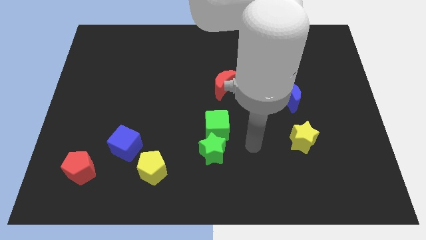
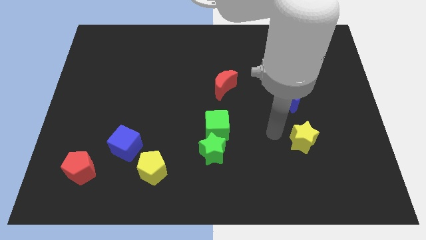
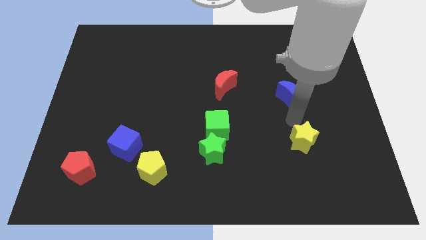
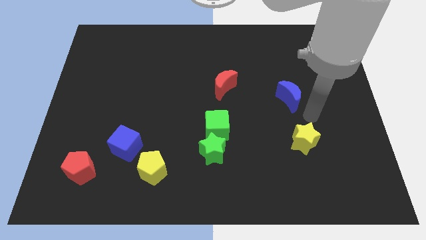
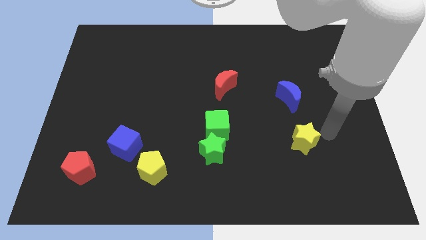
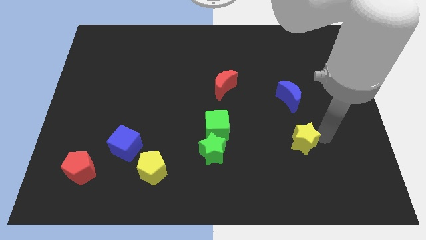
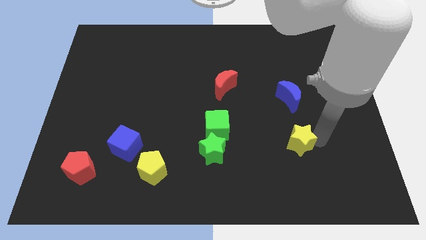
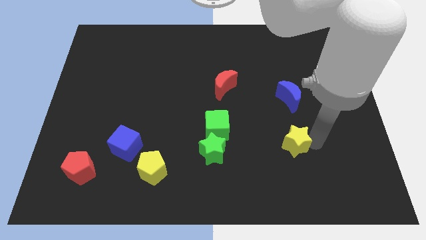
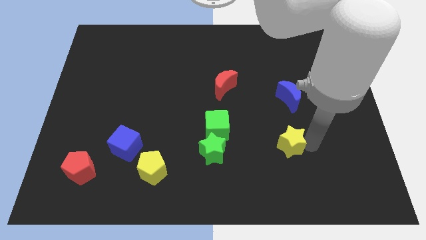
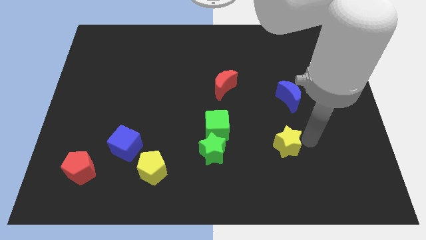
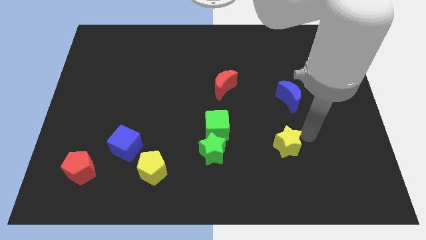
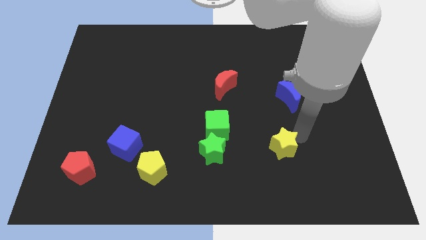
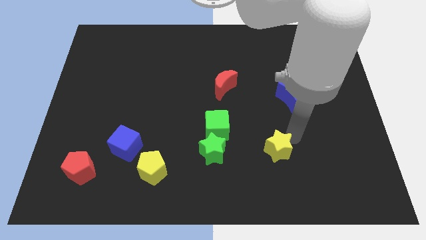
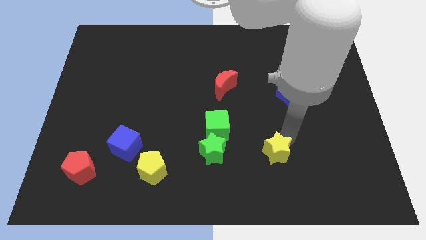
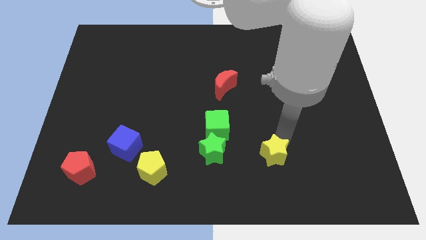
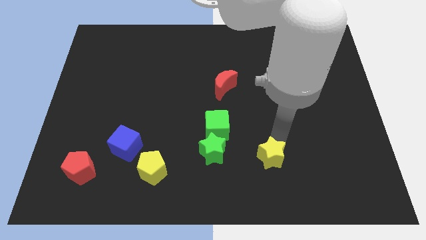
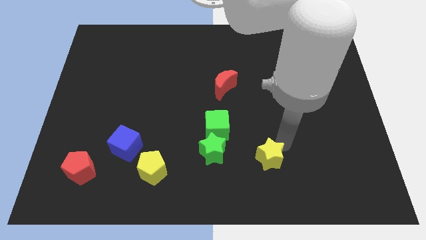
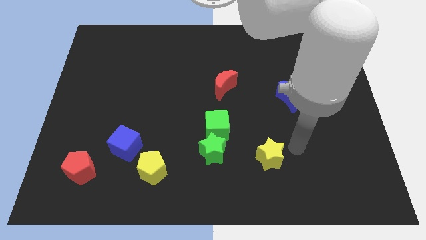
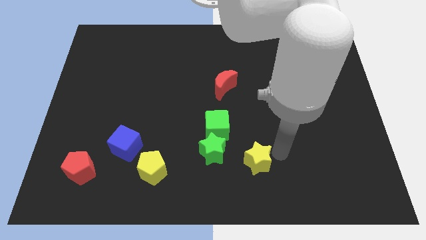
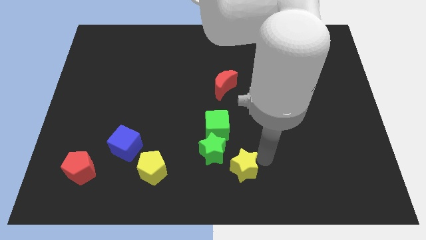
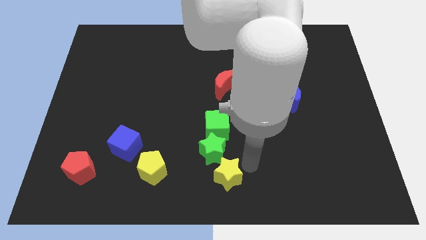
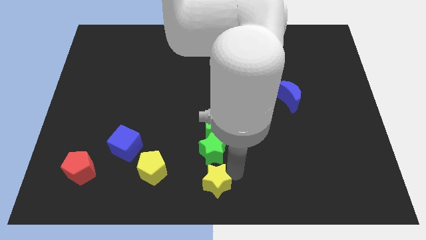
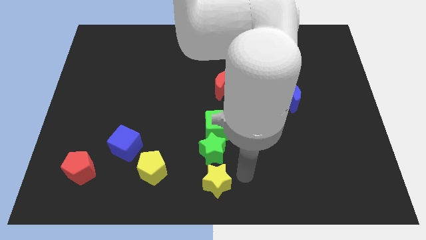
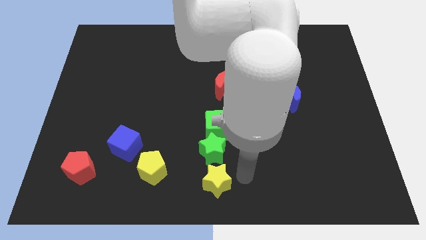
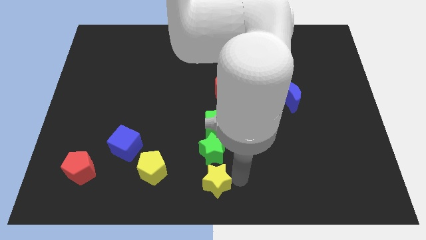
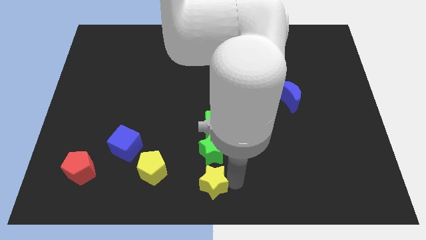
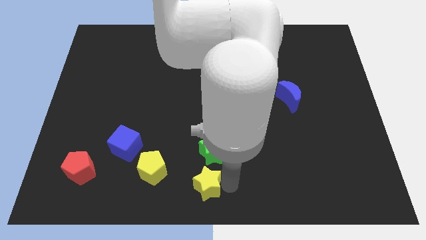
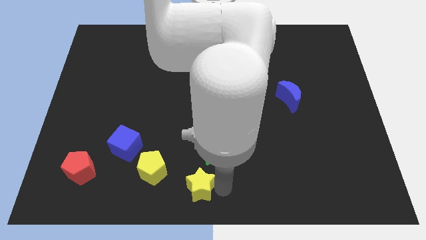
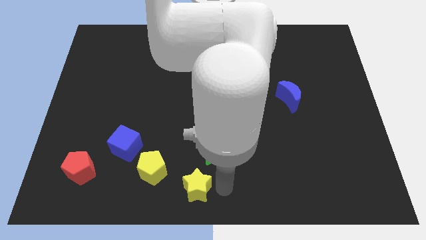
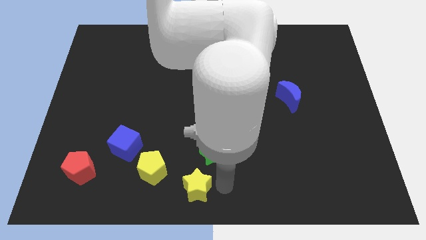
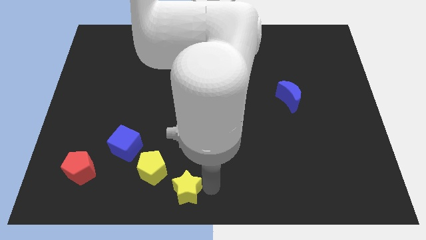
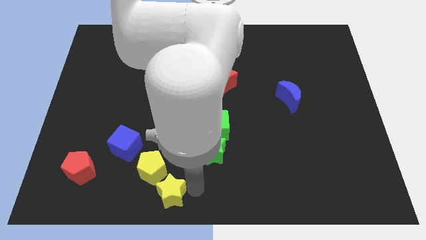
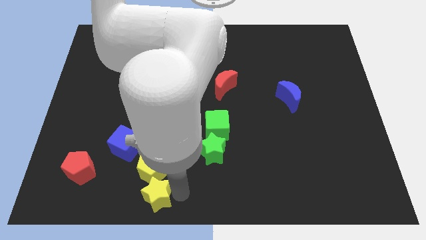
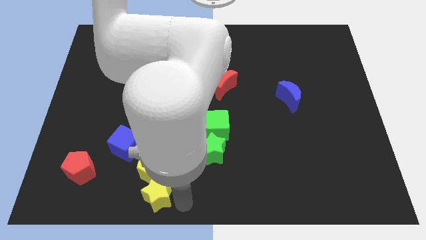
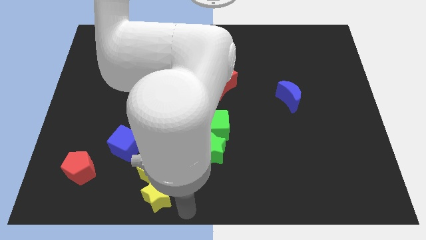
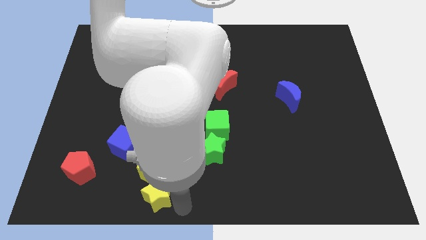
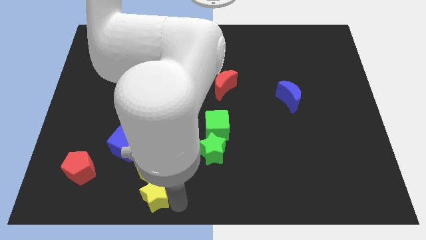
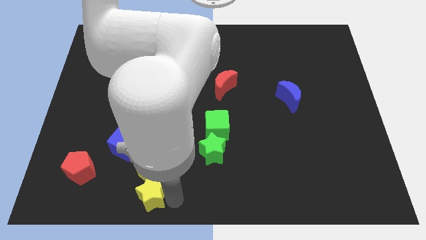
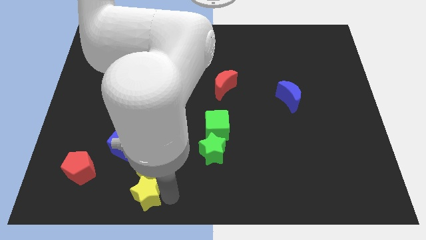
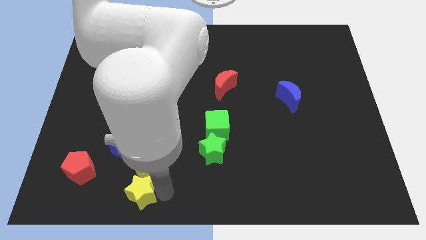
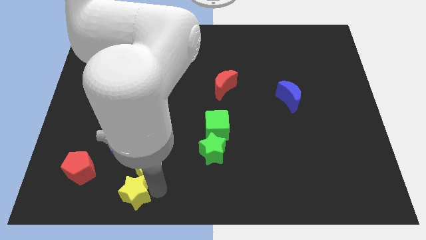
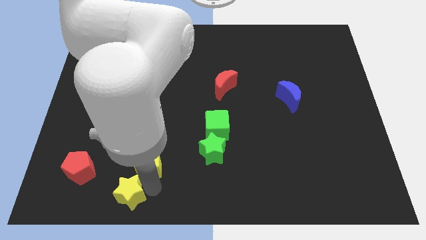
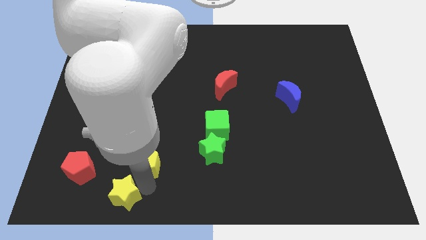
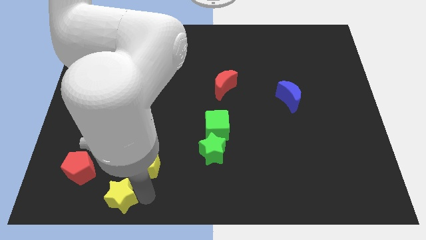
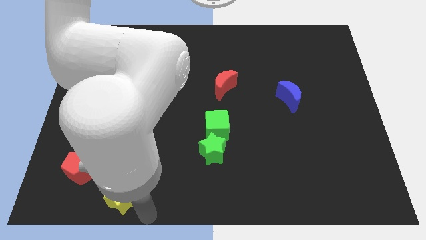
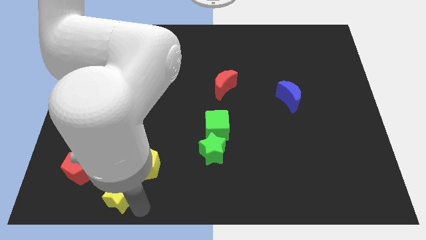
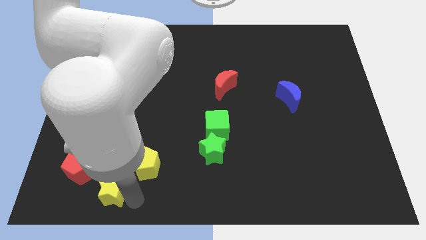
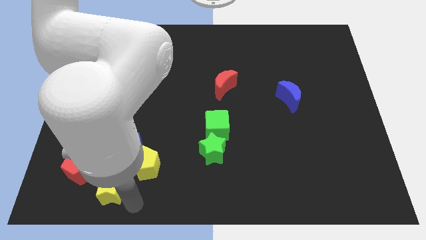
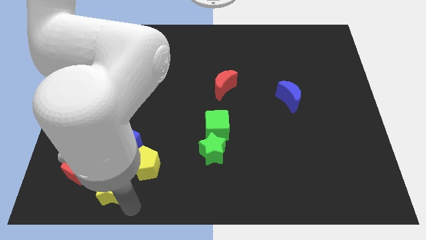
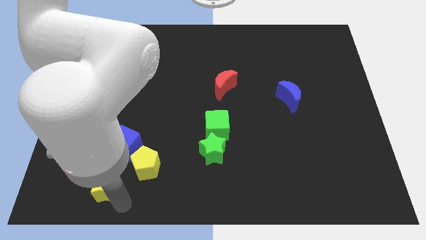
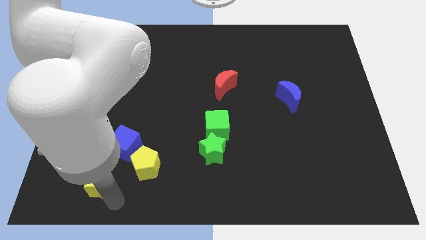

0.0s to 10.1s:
put the yellow star next to the red pentagon

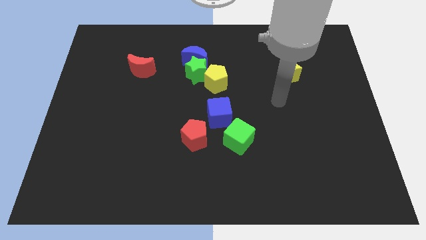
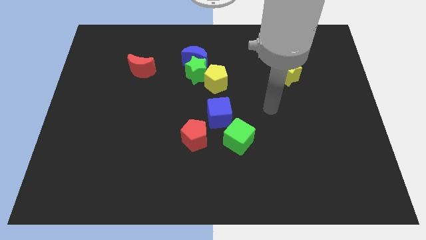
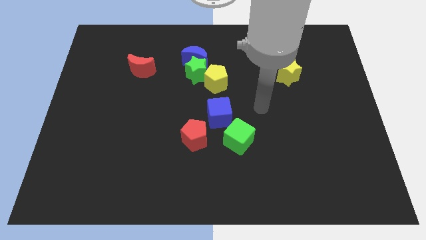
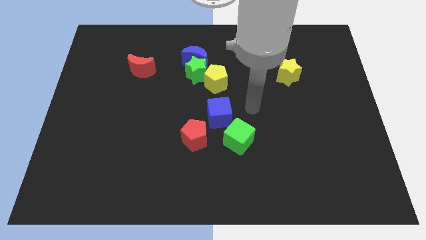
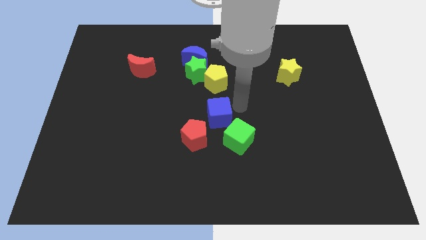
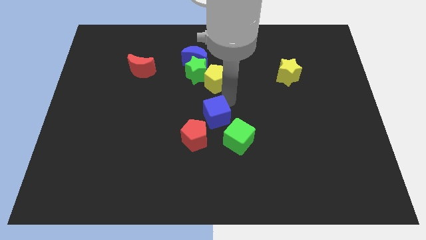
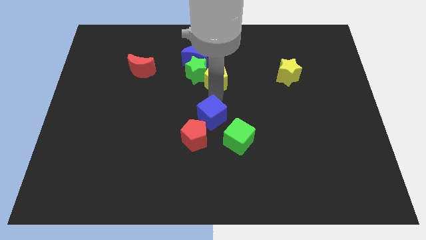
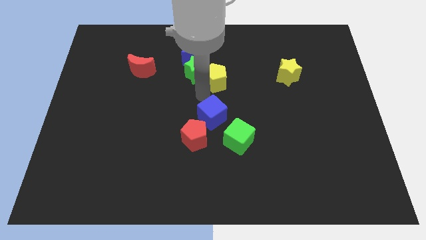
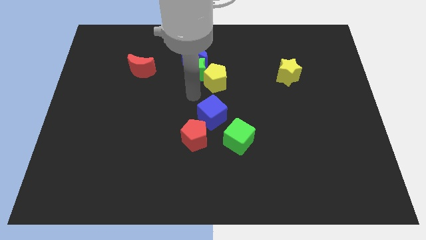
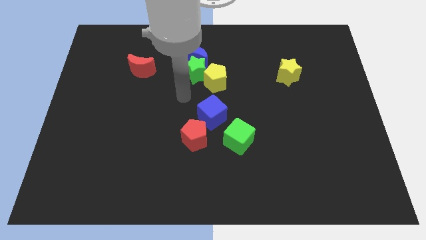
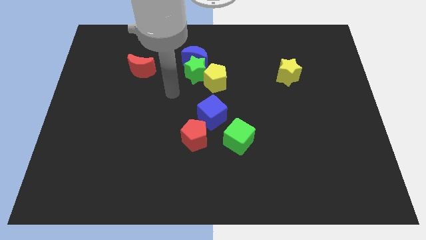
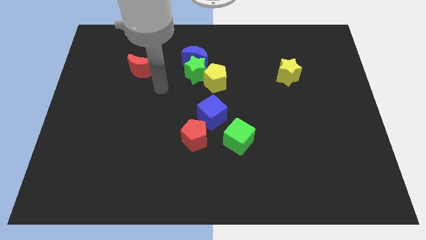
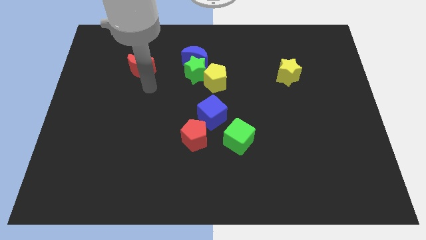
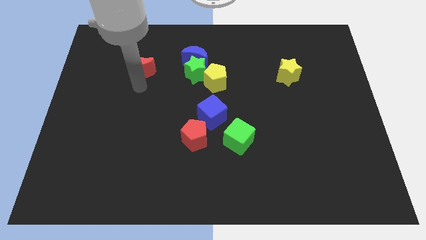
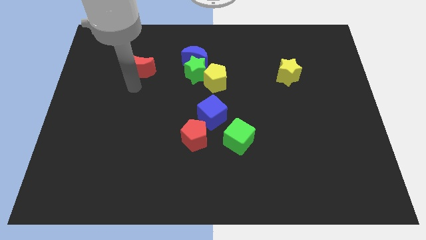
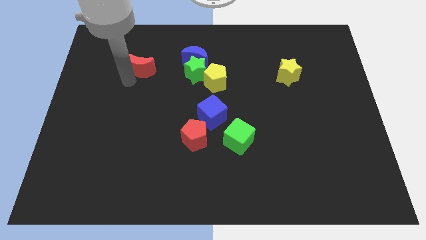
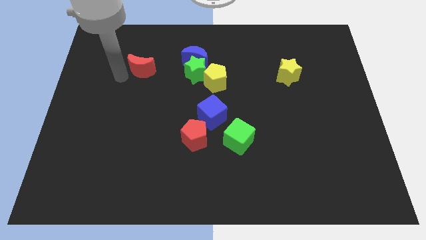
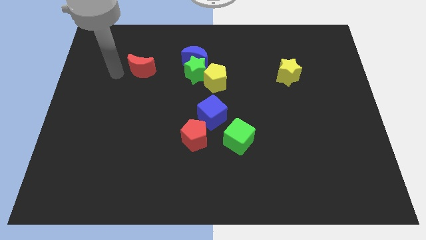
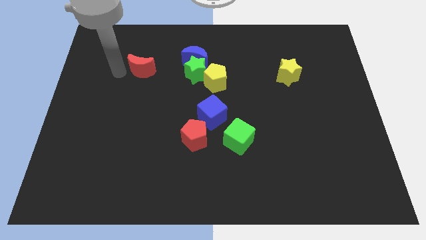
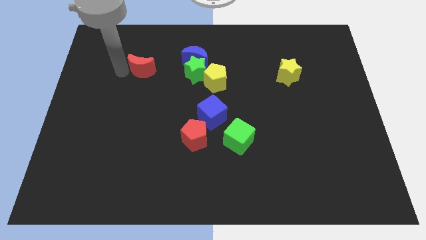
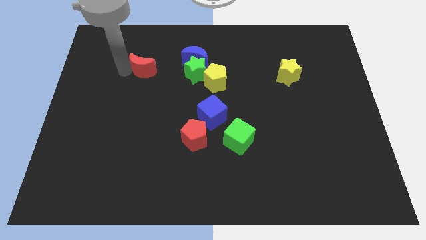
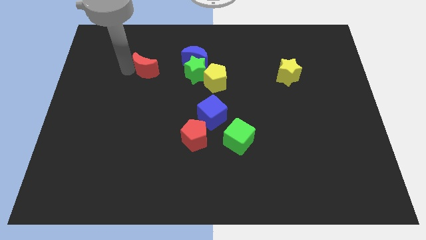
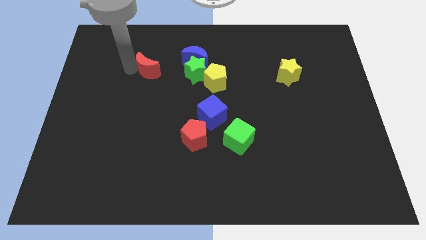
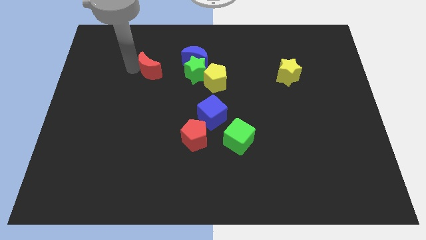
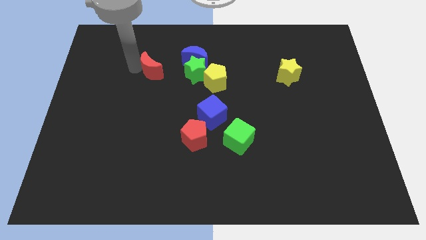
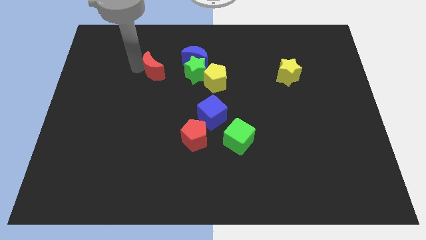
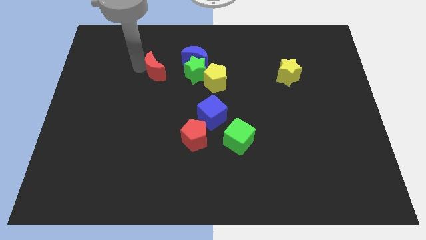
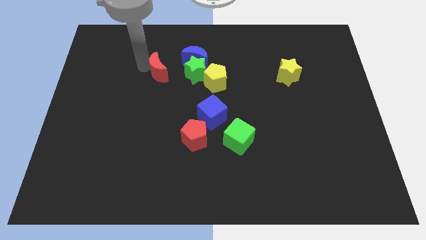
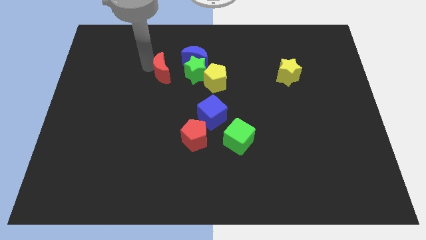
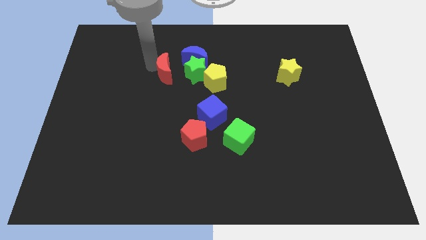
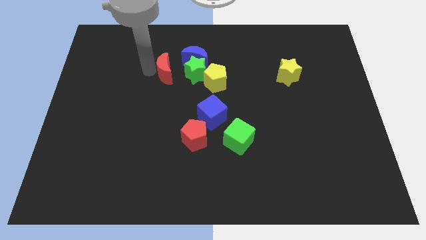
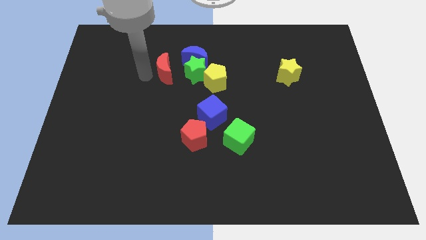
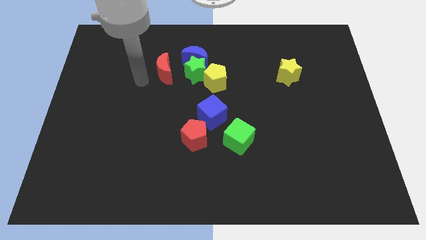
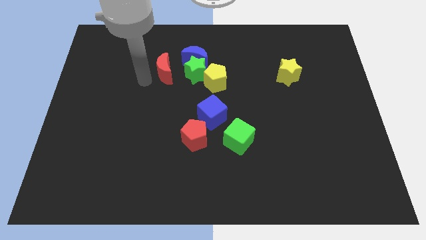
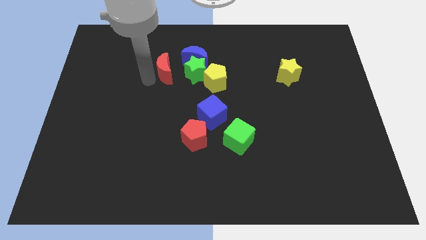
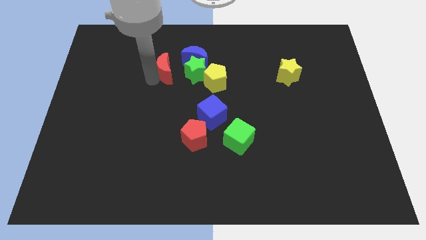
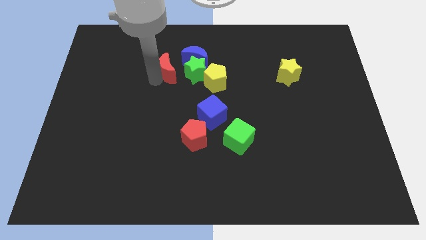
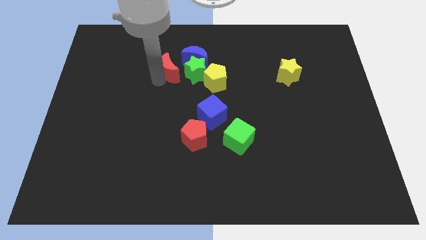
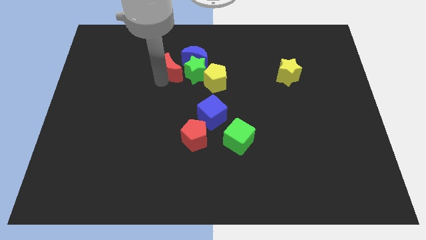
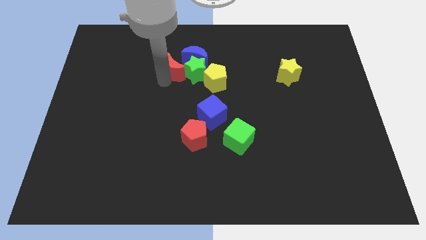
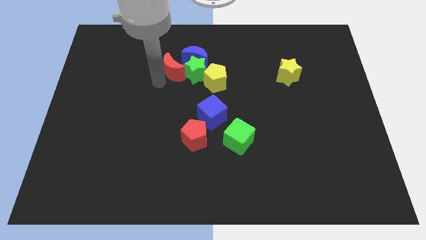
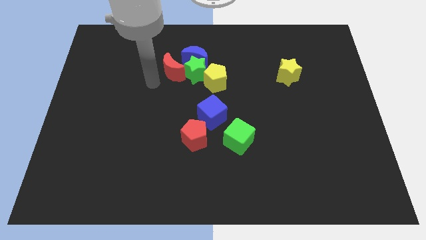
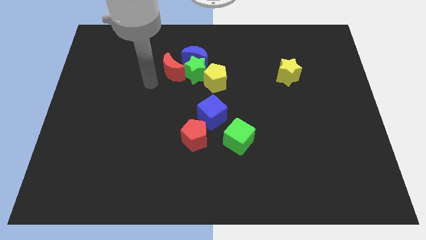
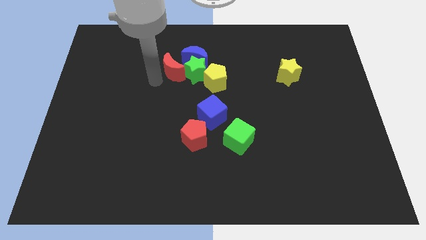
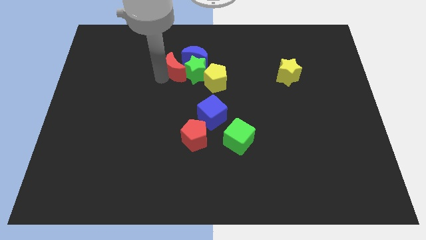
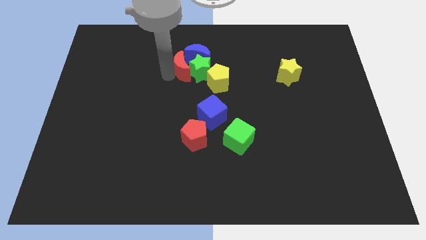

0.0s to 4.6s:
push the red moon close to the blue moon
